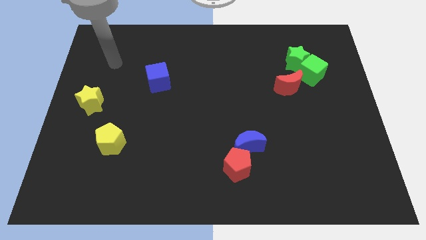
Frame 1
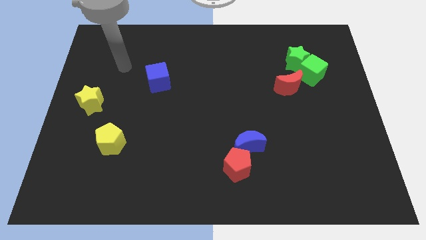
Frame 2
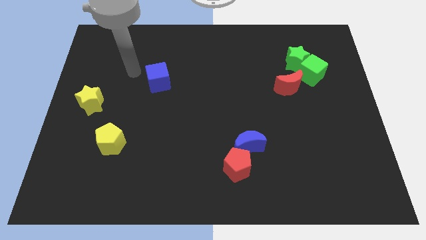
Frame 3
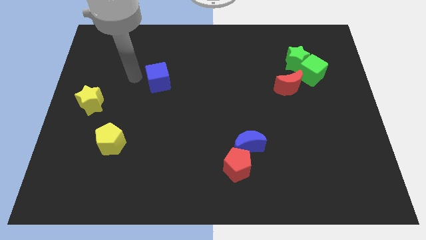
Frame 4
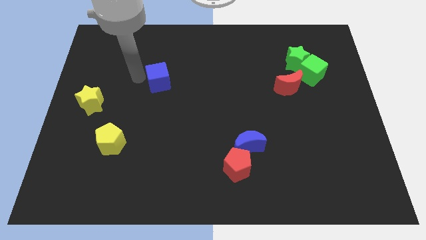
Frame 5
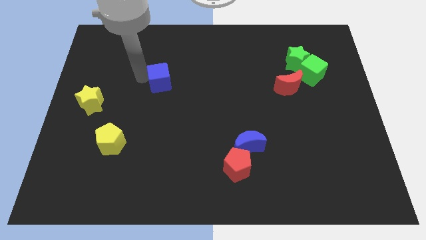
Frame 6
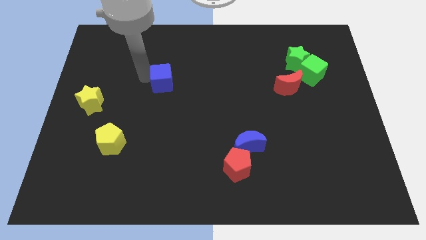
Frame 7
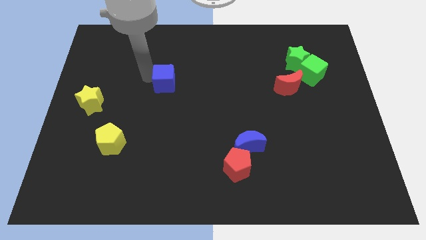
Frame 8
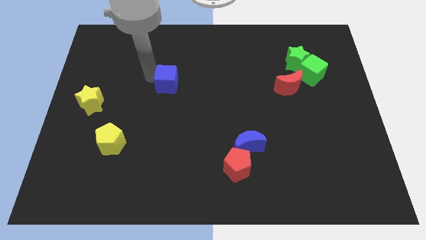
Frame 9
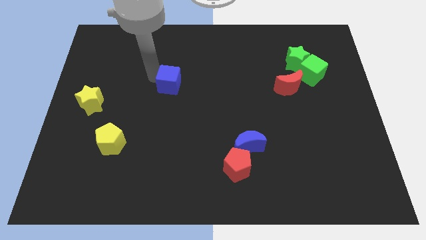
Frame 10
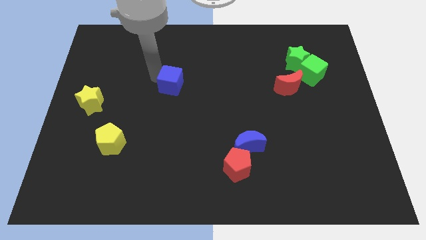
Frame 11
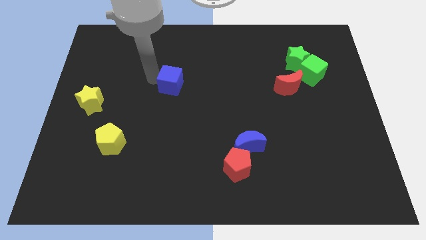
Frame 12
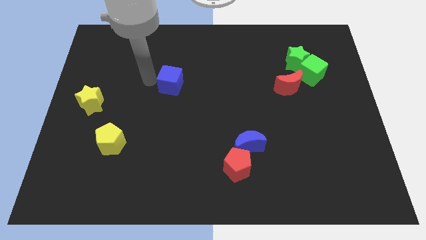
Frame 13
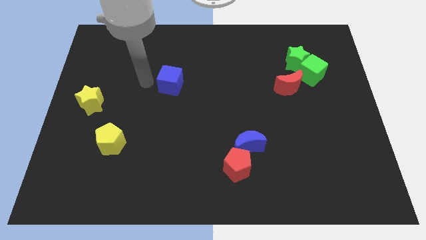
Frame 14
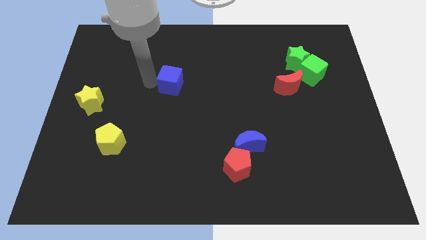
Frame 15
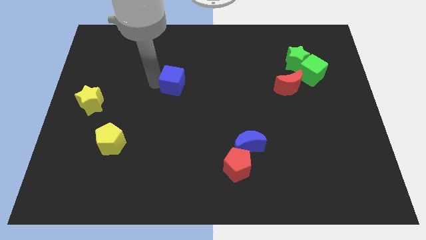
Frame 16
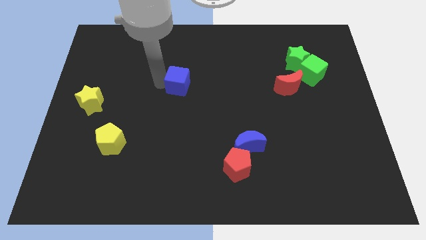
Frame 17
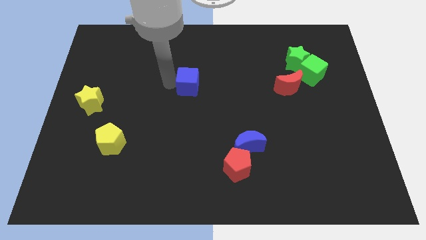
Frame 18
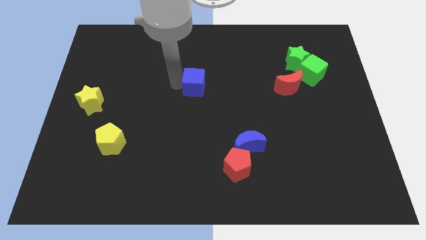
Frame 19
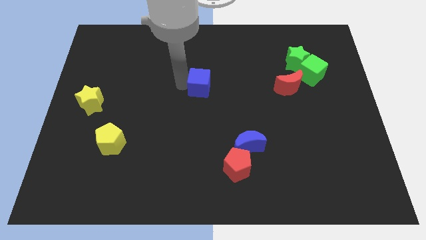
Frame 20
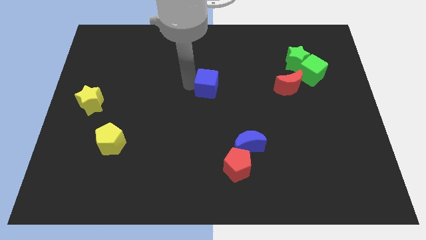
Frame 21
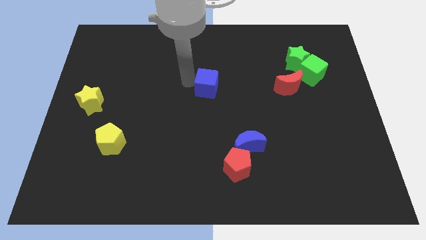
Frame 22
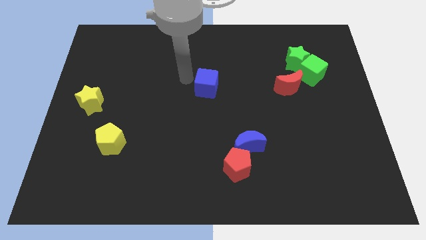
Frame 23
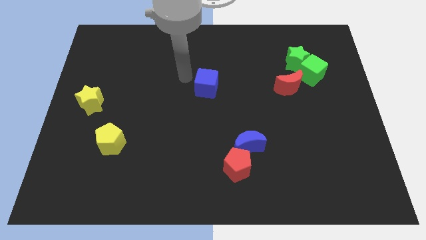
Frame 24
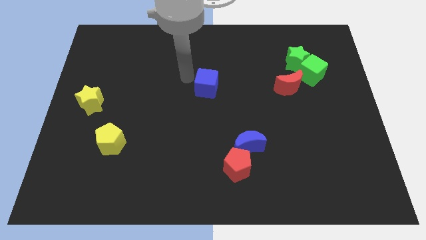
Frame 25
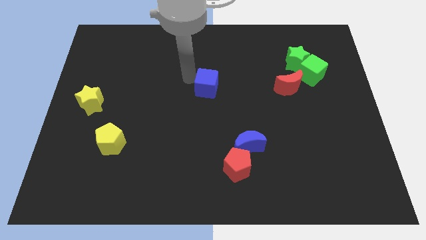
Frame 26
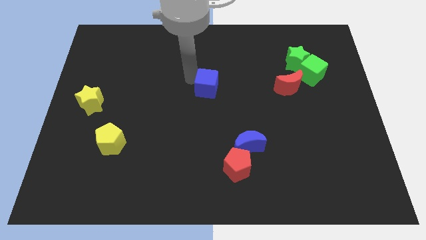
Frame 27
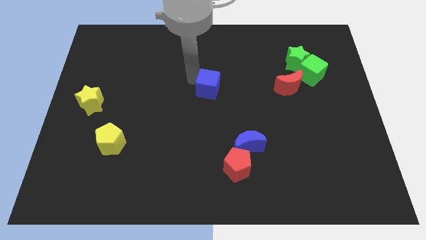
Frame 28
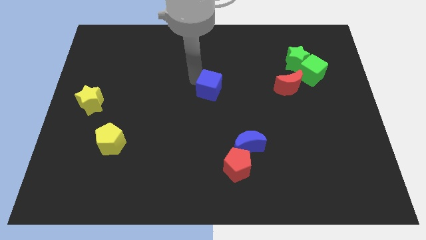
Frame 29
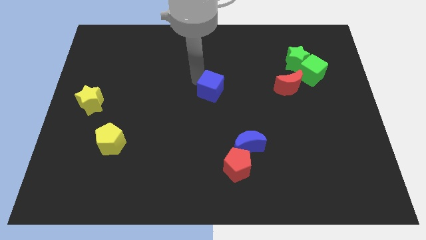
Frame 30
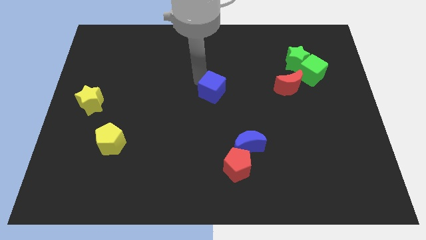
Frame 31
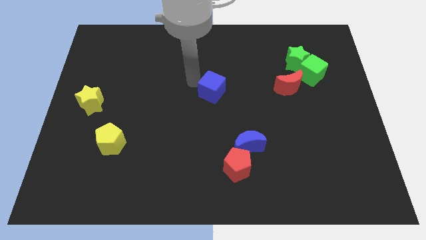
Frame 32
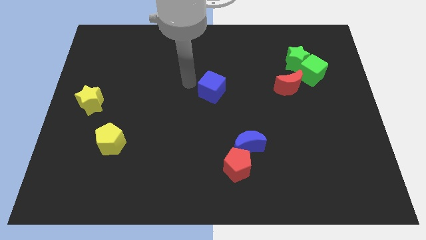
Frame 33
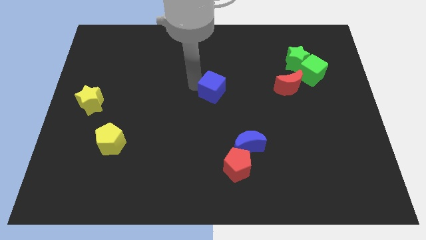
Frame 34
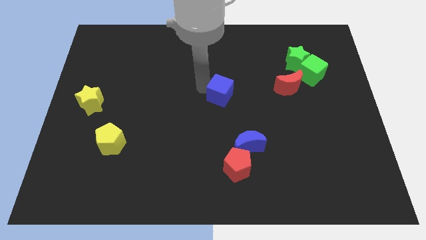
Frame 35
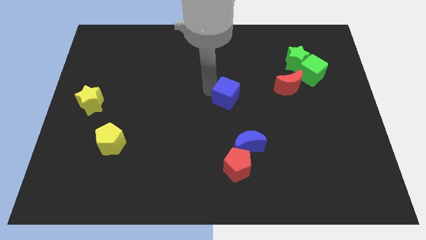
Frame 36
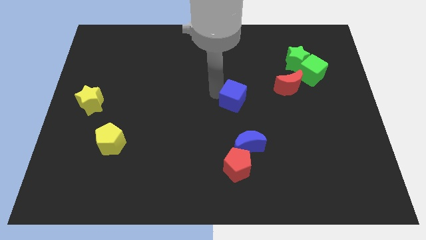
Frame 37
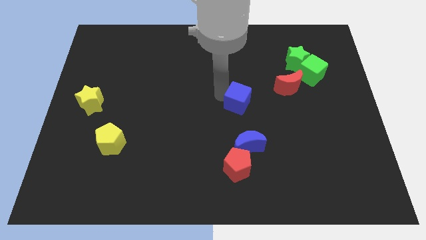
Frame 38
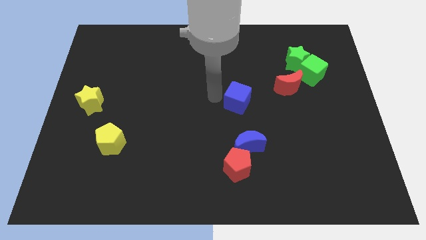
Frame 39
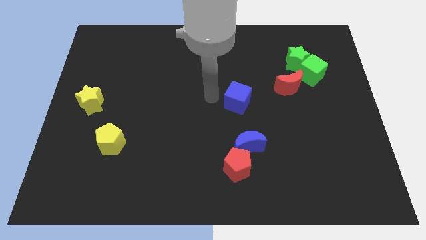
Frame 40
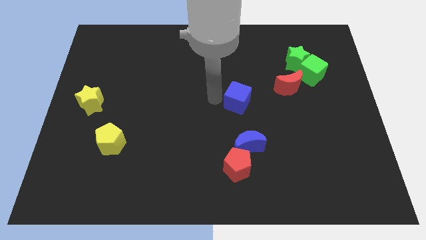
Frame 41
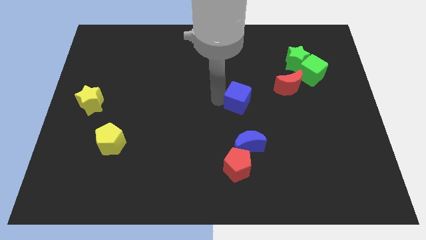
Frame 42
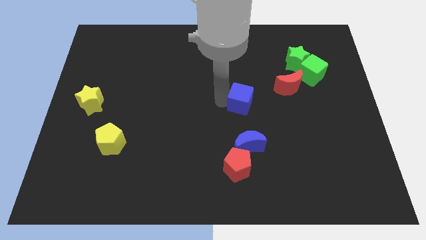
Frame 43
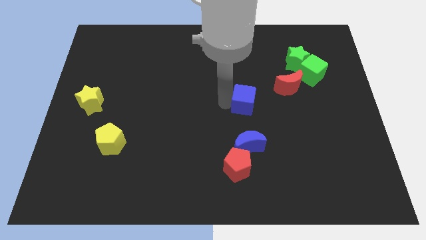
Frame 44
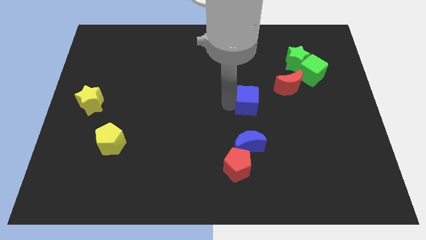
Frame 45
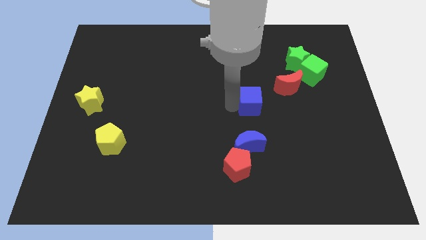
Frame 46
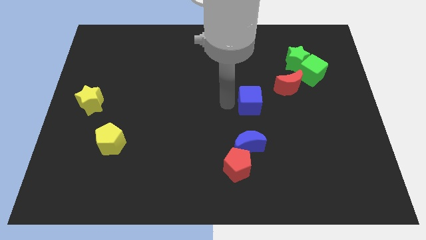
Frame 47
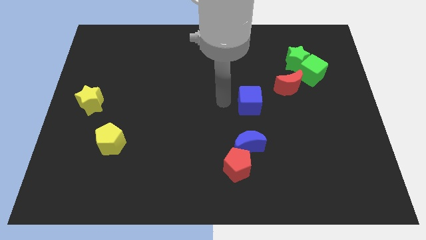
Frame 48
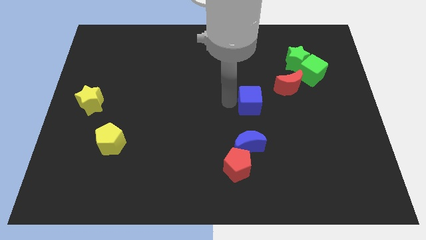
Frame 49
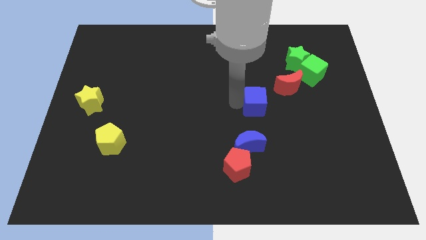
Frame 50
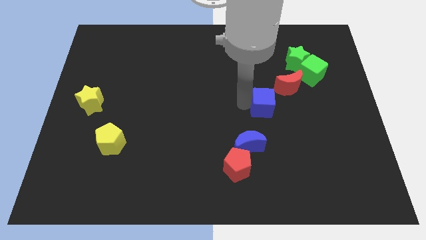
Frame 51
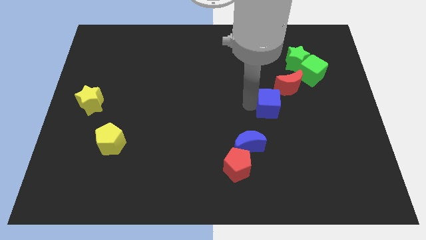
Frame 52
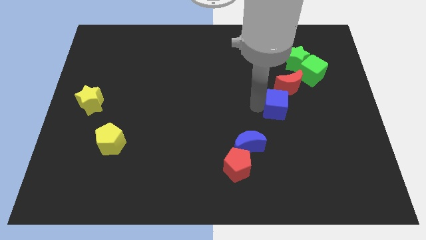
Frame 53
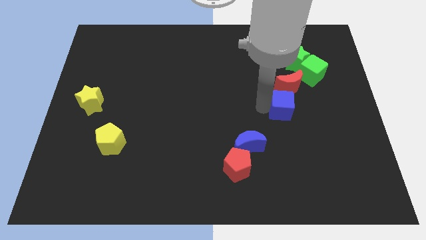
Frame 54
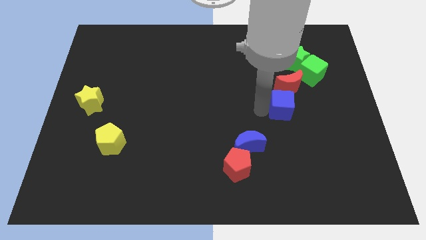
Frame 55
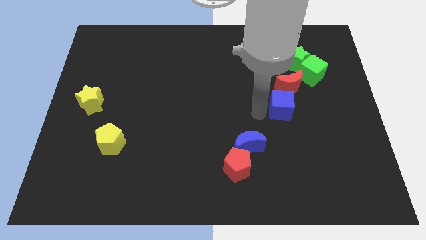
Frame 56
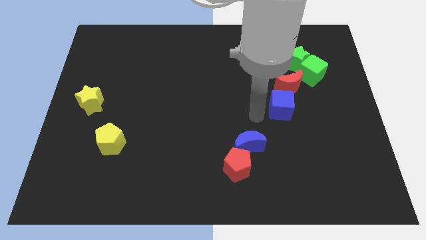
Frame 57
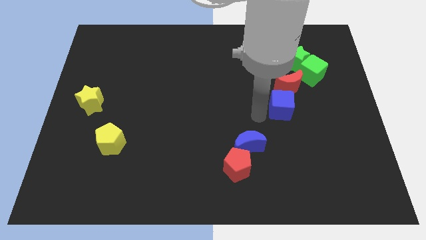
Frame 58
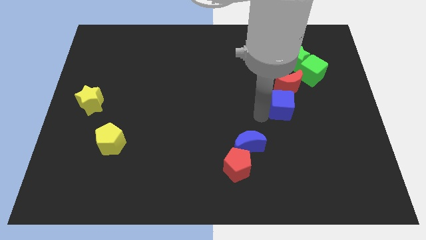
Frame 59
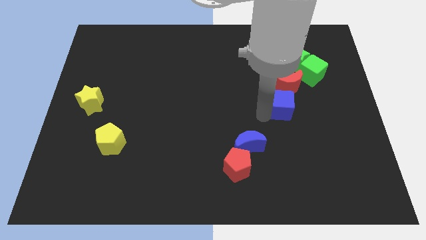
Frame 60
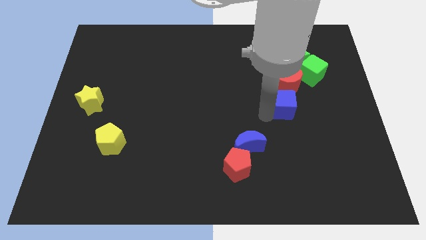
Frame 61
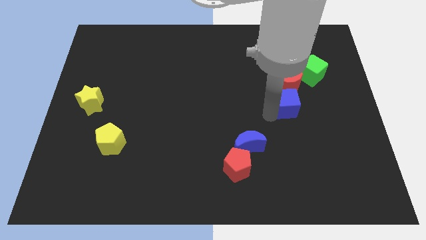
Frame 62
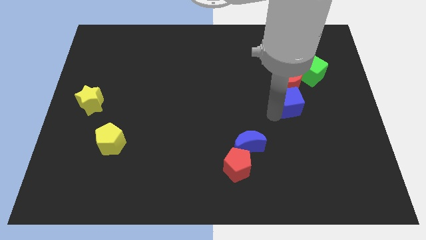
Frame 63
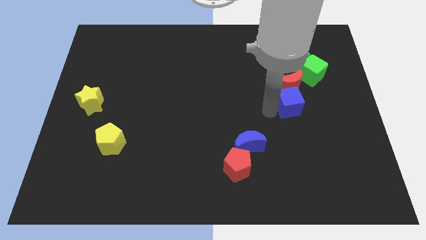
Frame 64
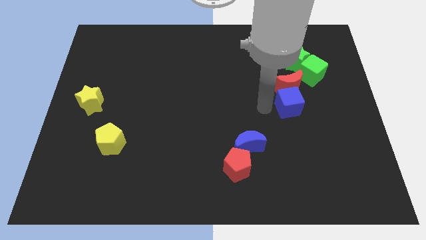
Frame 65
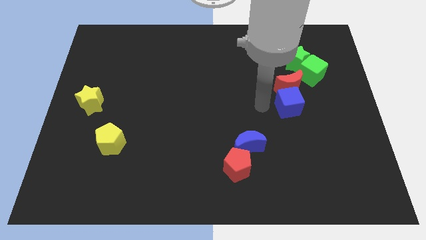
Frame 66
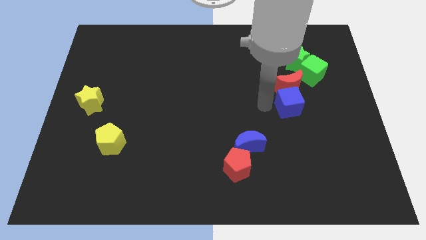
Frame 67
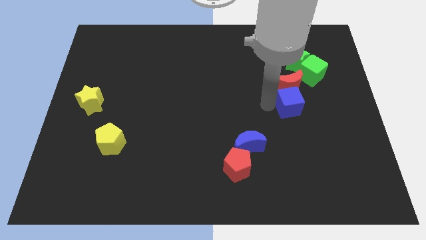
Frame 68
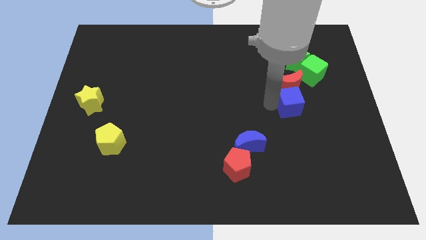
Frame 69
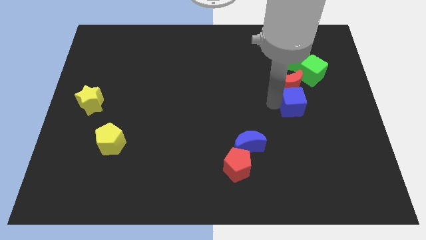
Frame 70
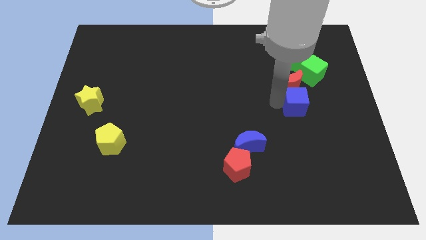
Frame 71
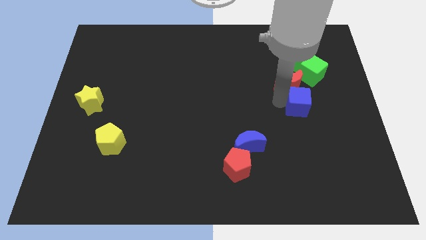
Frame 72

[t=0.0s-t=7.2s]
move the blue cube to the bottom side of the green cube
